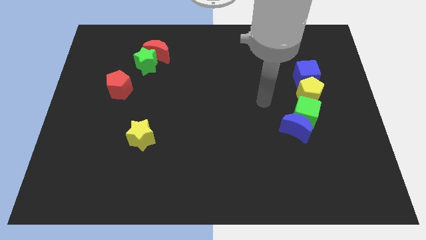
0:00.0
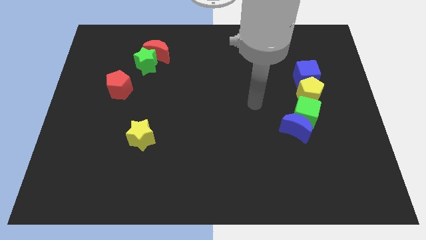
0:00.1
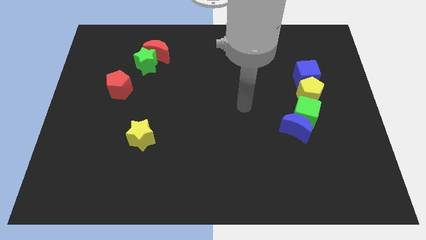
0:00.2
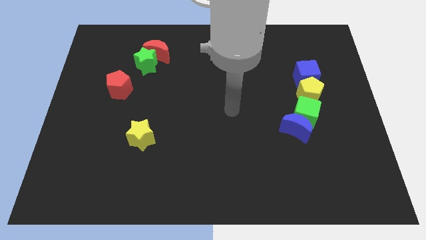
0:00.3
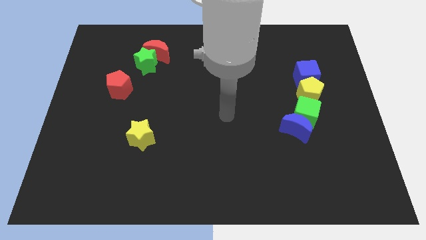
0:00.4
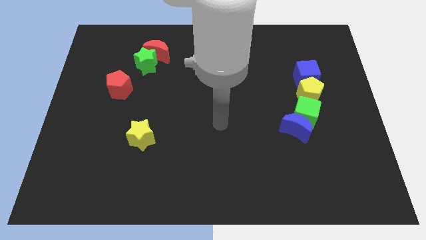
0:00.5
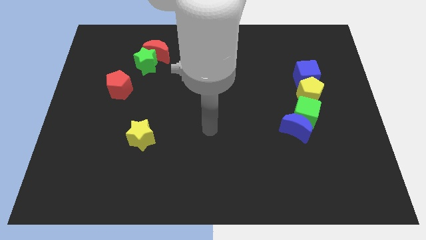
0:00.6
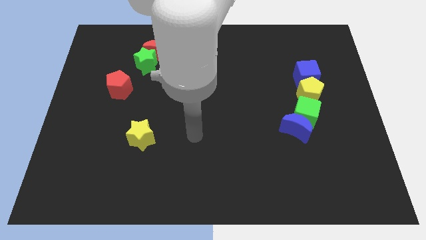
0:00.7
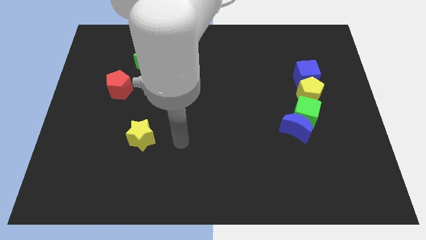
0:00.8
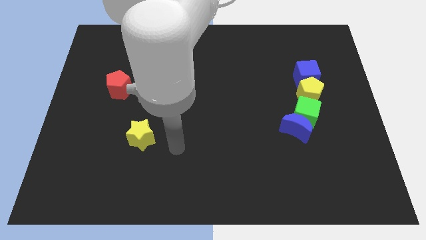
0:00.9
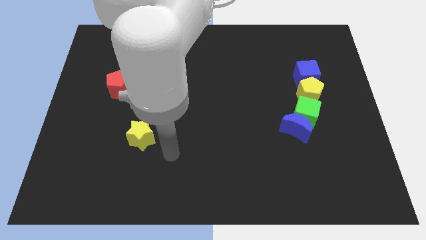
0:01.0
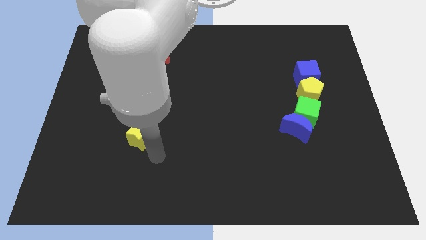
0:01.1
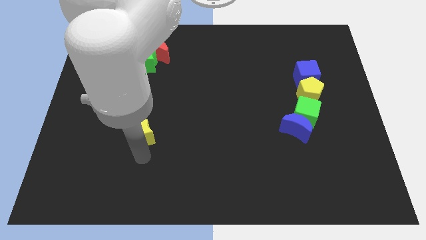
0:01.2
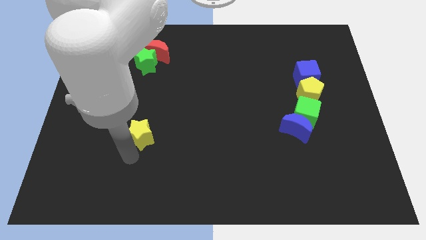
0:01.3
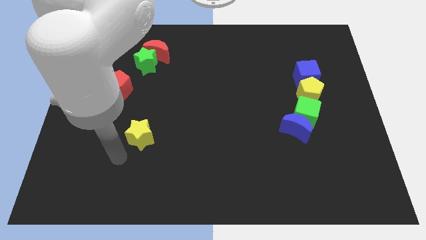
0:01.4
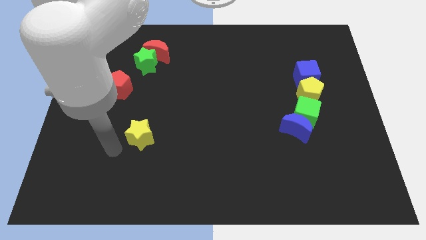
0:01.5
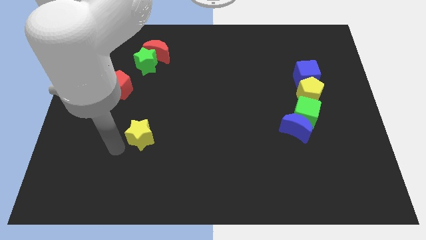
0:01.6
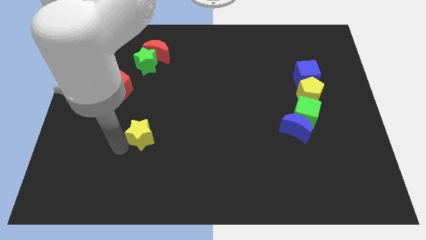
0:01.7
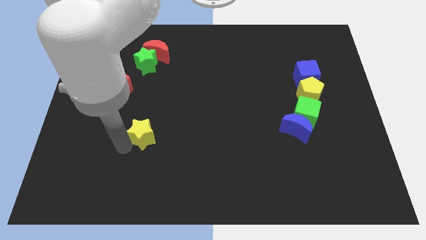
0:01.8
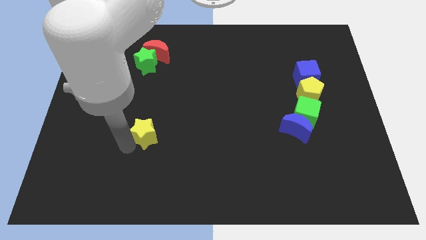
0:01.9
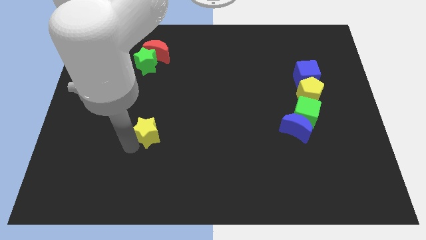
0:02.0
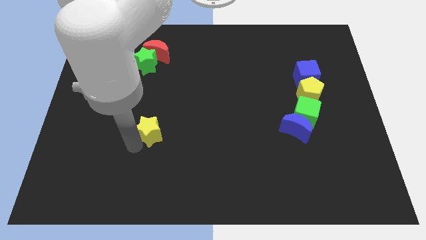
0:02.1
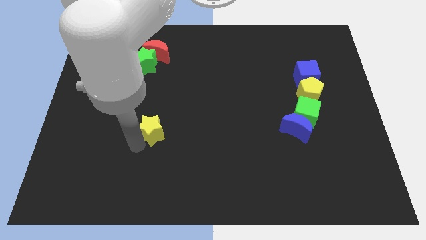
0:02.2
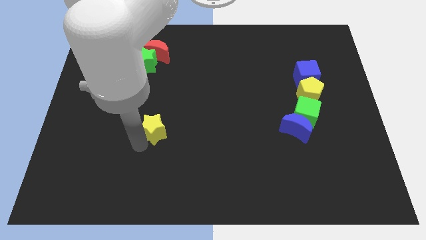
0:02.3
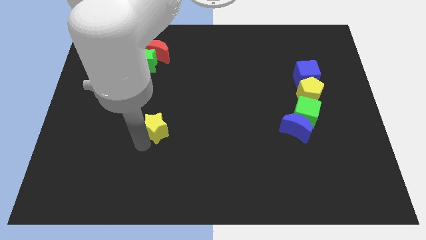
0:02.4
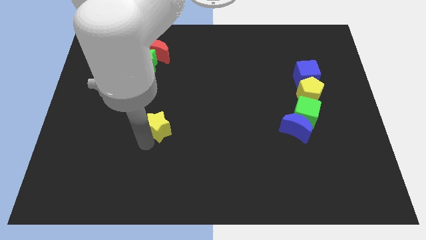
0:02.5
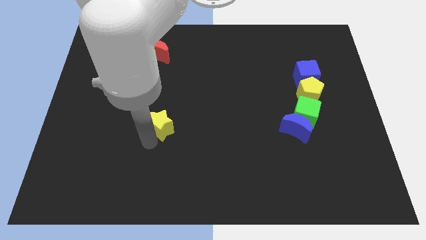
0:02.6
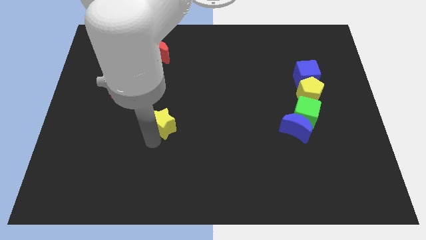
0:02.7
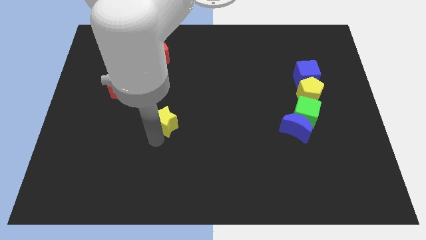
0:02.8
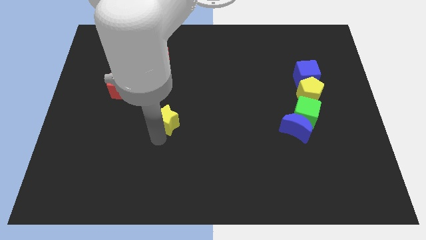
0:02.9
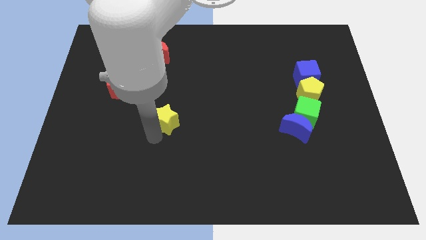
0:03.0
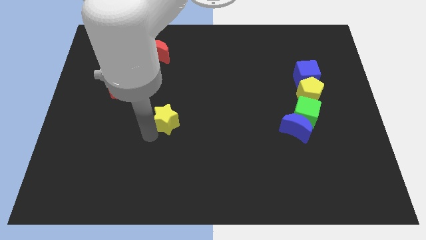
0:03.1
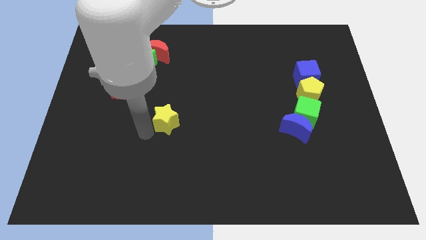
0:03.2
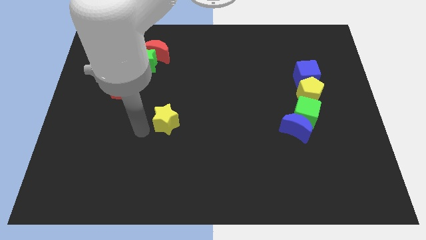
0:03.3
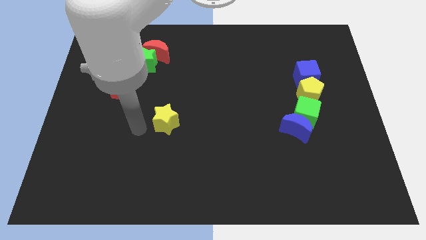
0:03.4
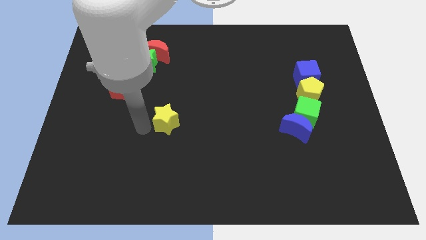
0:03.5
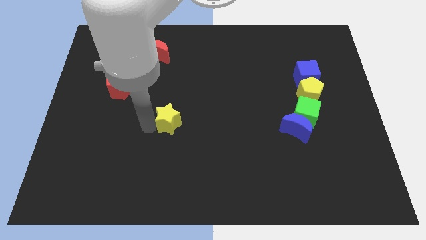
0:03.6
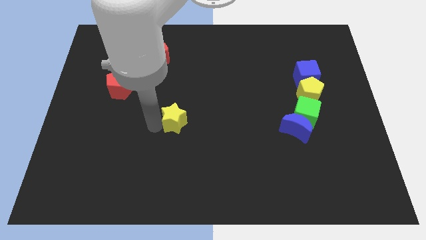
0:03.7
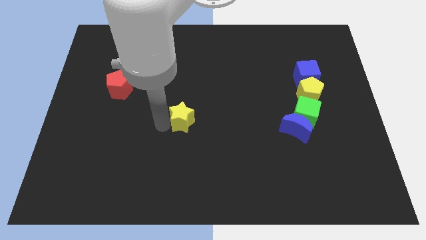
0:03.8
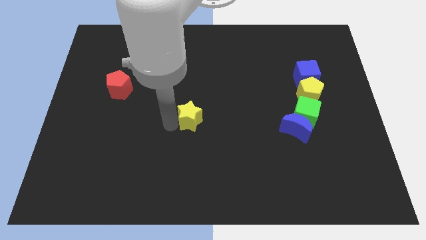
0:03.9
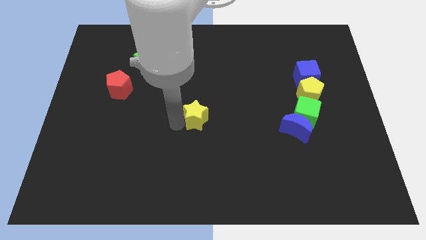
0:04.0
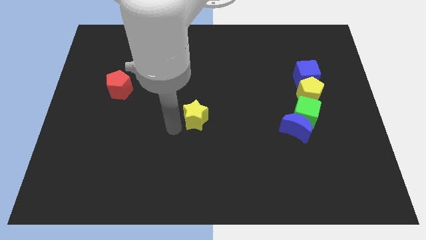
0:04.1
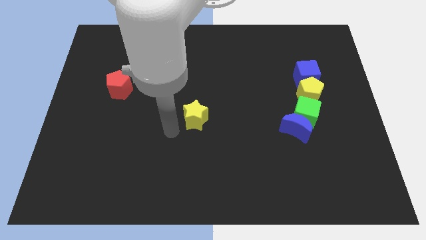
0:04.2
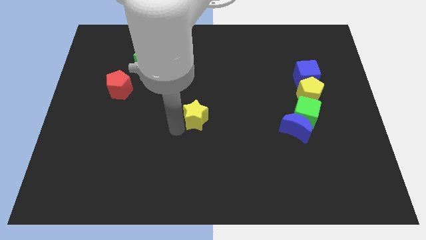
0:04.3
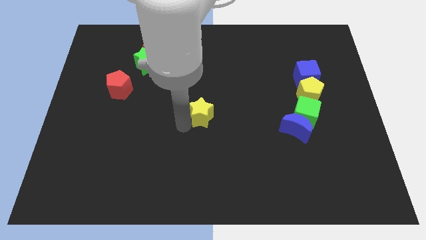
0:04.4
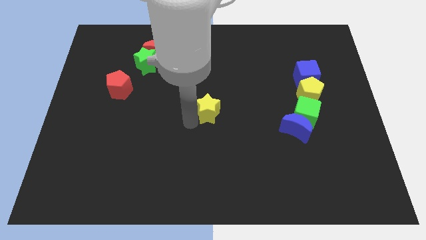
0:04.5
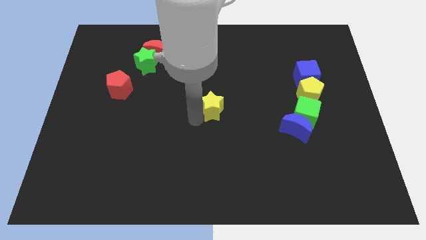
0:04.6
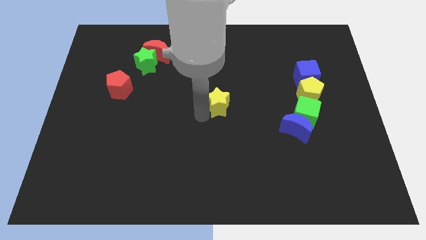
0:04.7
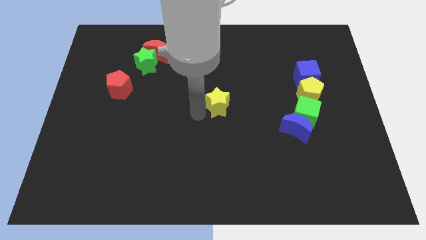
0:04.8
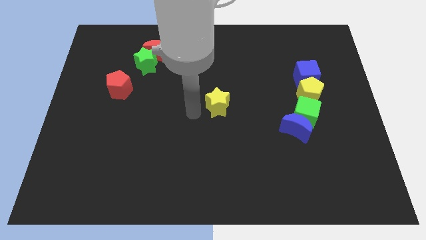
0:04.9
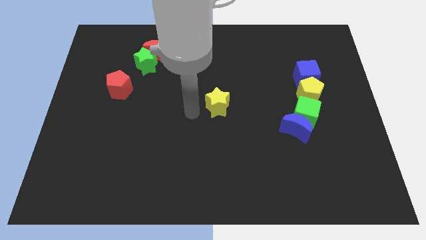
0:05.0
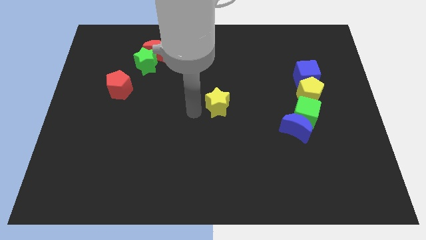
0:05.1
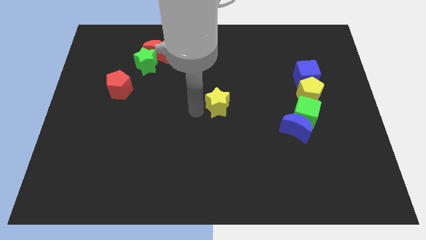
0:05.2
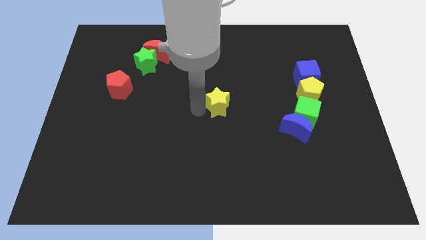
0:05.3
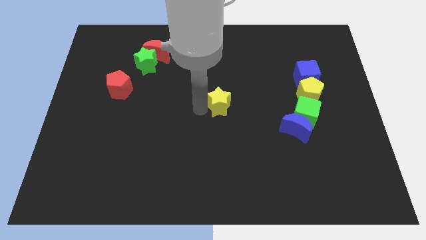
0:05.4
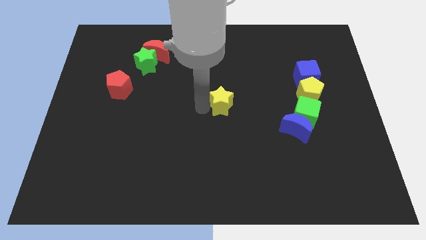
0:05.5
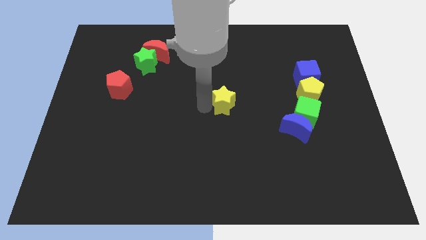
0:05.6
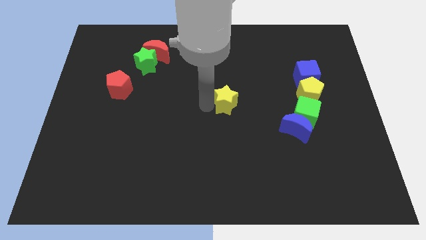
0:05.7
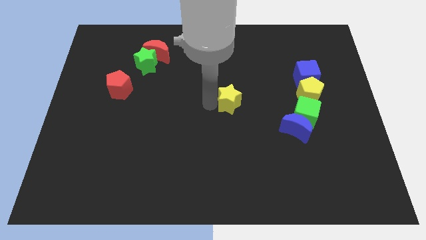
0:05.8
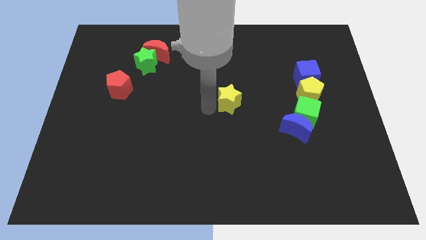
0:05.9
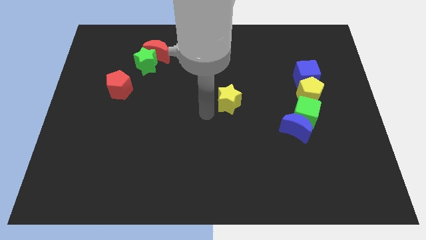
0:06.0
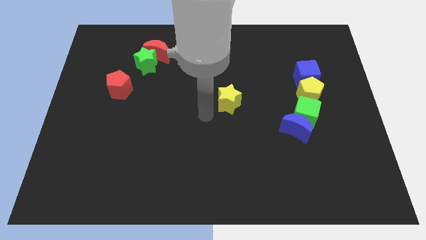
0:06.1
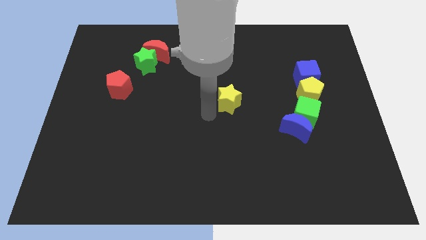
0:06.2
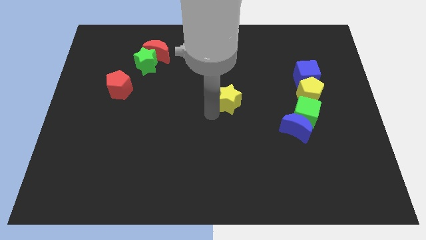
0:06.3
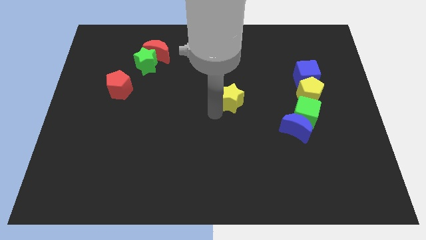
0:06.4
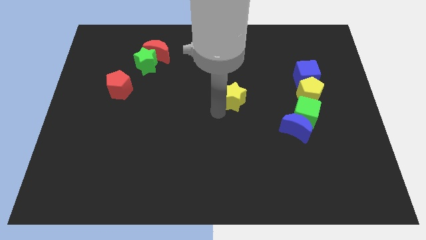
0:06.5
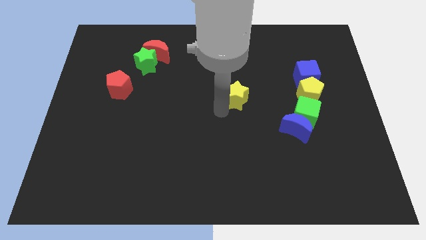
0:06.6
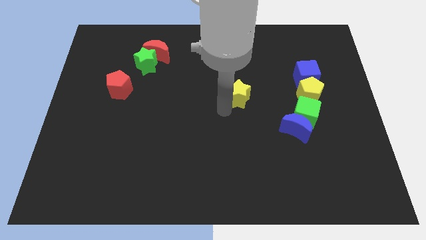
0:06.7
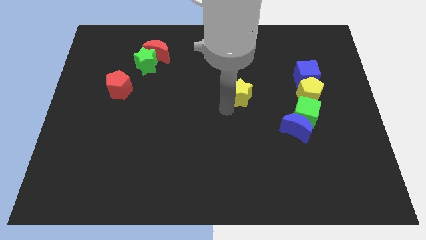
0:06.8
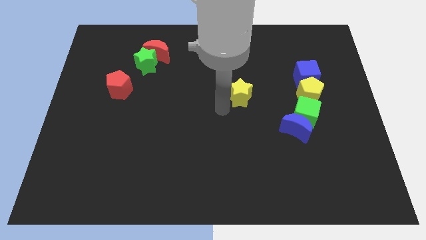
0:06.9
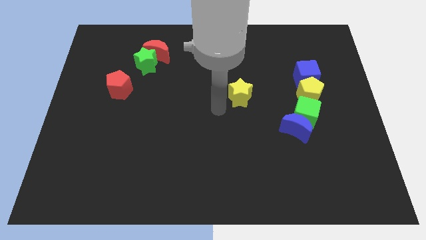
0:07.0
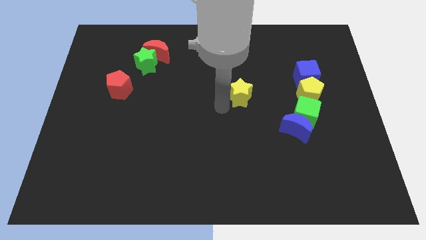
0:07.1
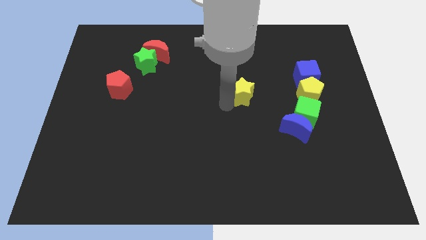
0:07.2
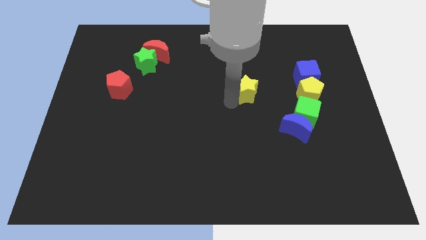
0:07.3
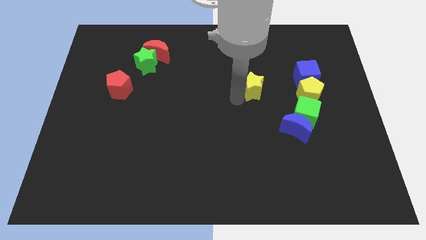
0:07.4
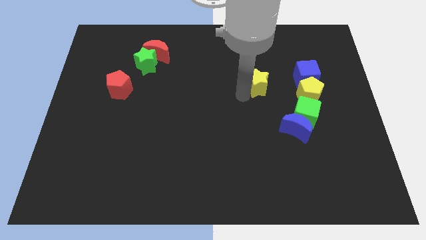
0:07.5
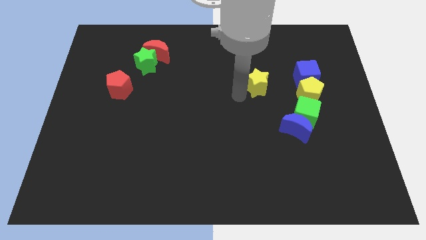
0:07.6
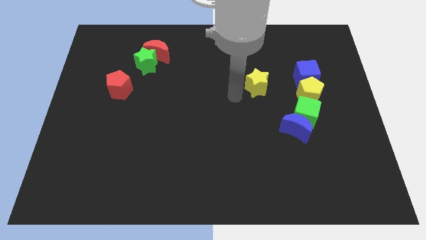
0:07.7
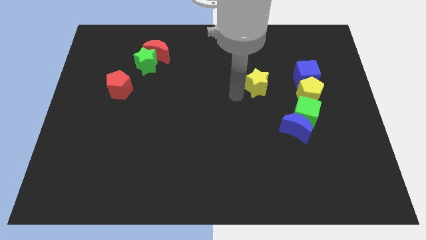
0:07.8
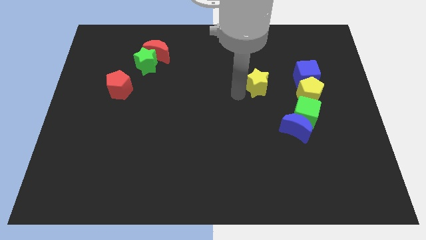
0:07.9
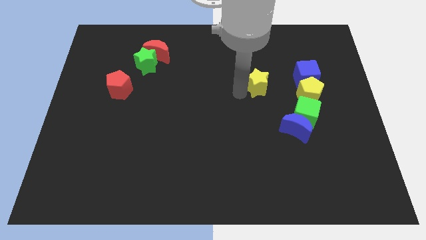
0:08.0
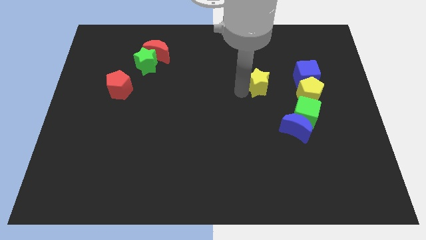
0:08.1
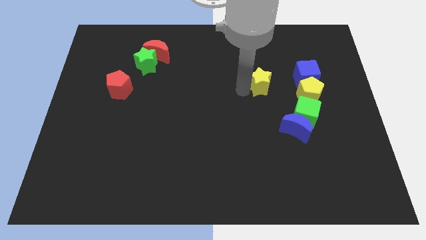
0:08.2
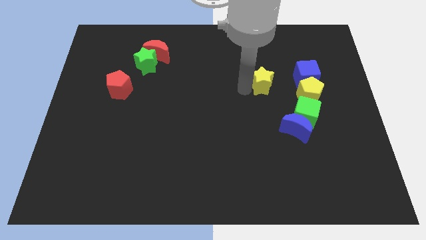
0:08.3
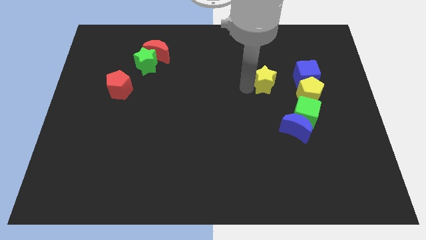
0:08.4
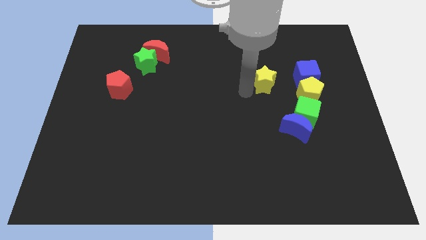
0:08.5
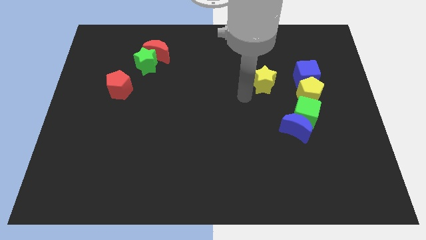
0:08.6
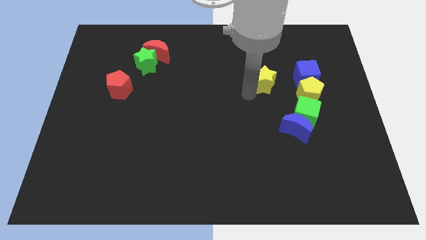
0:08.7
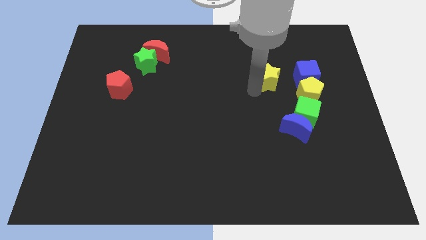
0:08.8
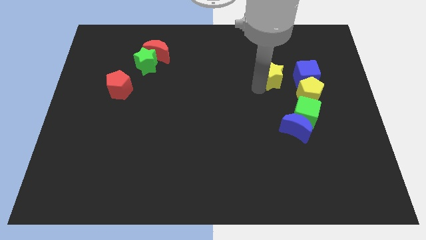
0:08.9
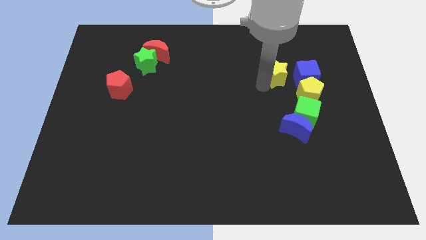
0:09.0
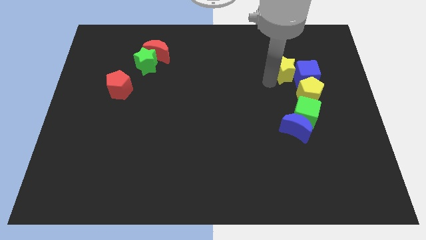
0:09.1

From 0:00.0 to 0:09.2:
slide the yellow star to the top side of the yellow pentagon
